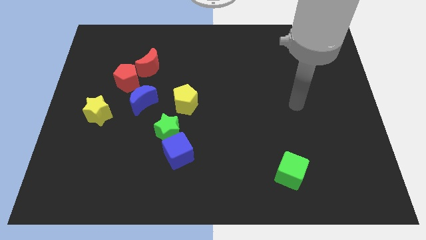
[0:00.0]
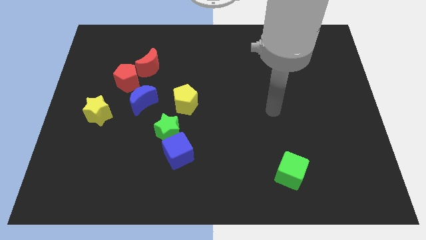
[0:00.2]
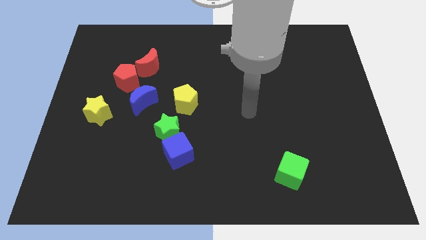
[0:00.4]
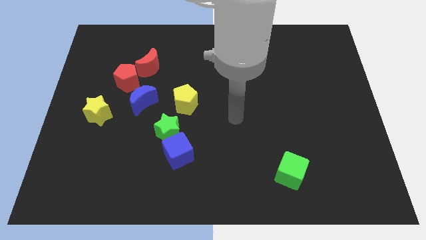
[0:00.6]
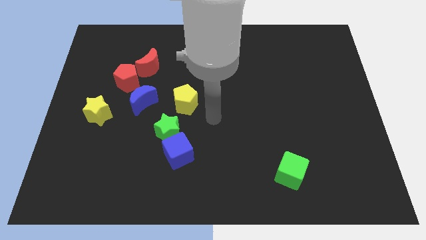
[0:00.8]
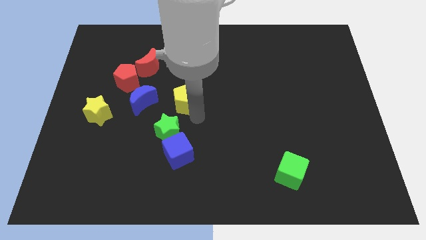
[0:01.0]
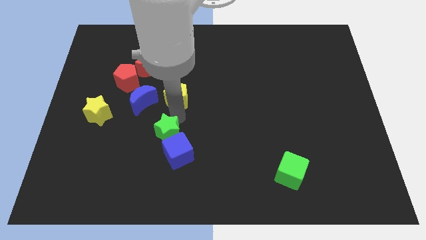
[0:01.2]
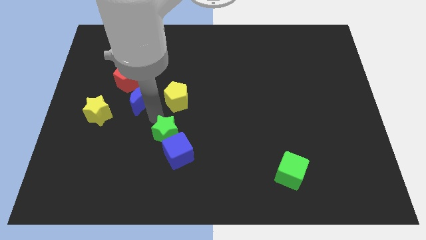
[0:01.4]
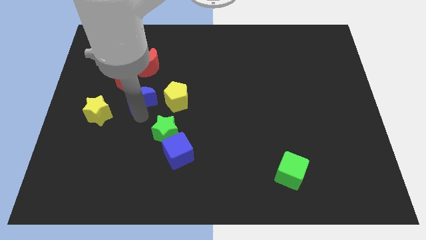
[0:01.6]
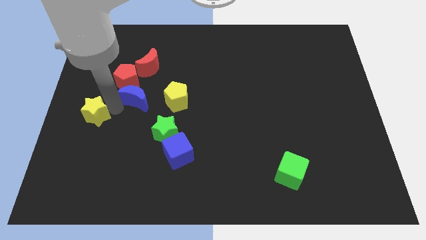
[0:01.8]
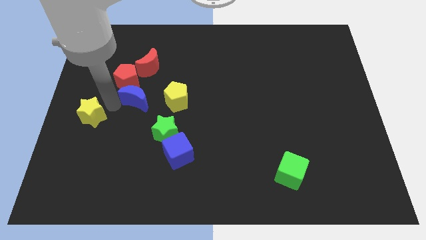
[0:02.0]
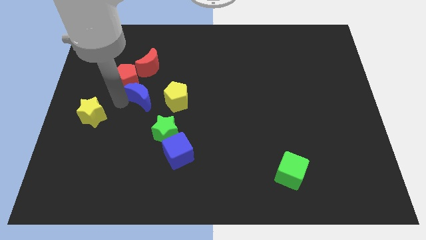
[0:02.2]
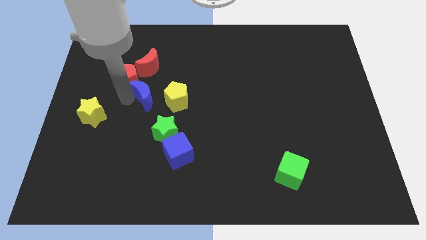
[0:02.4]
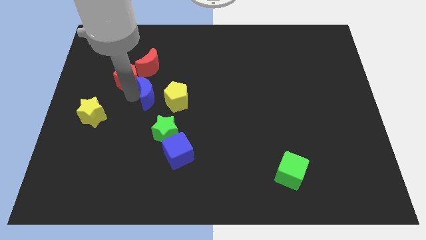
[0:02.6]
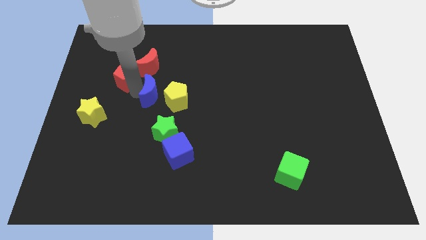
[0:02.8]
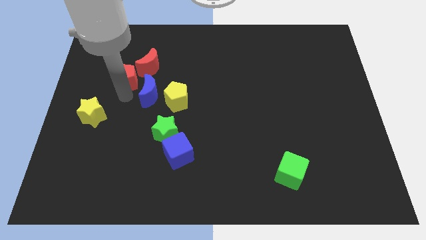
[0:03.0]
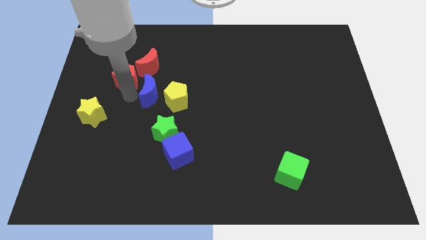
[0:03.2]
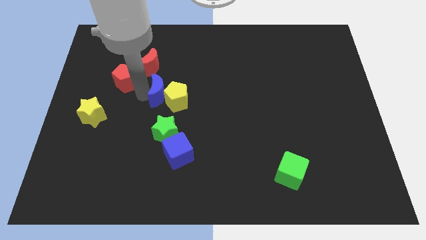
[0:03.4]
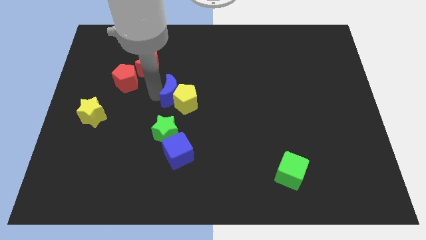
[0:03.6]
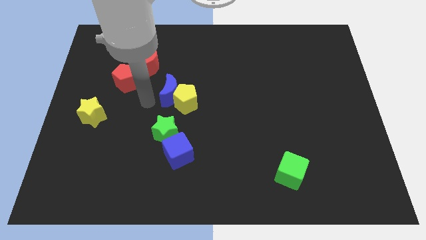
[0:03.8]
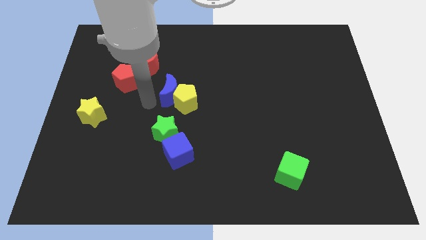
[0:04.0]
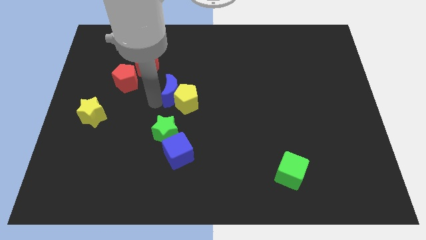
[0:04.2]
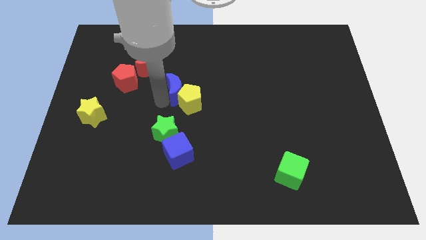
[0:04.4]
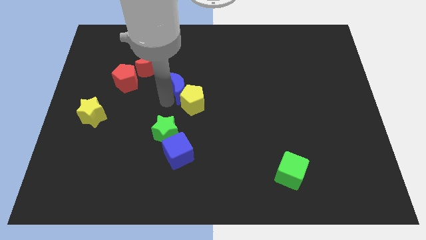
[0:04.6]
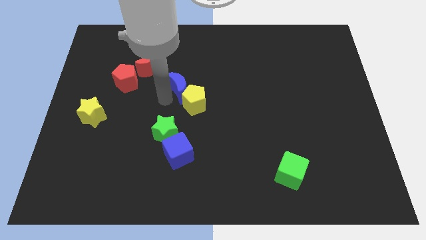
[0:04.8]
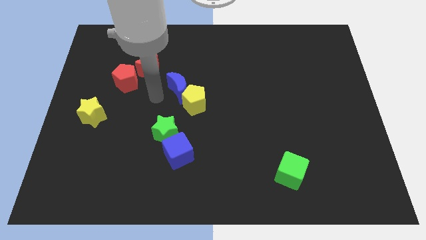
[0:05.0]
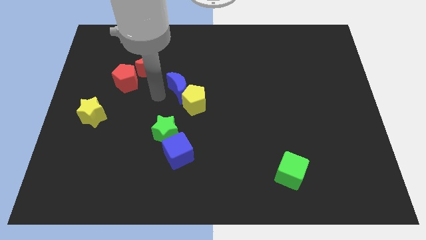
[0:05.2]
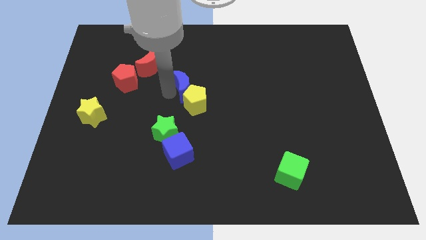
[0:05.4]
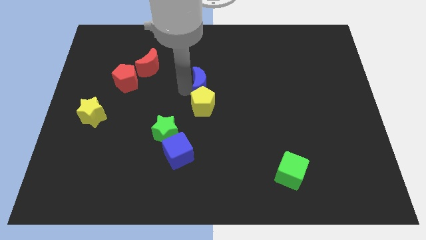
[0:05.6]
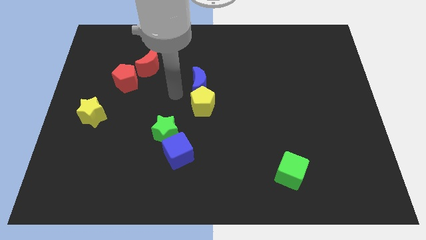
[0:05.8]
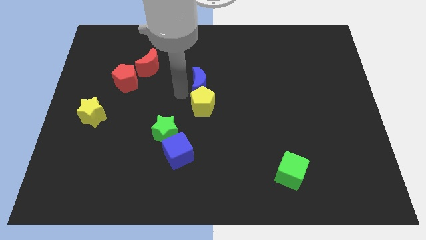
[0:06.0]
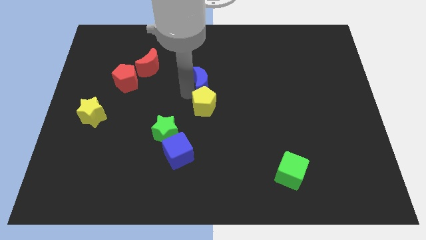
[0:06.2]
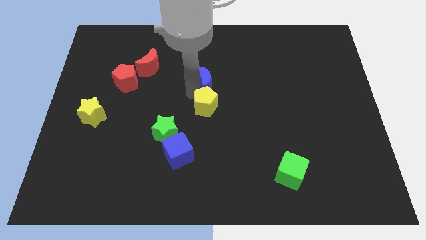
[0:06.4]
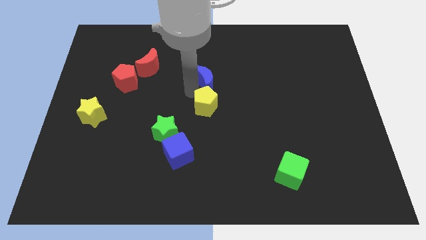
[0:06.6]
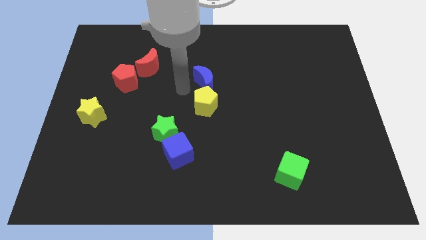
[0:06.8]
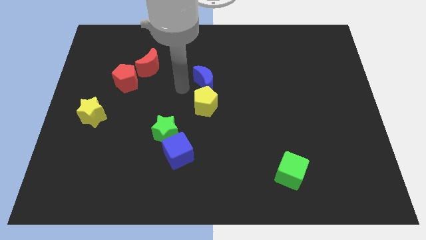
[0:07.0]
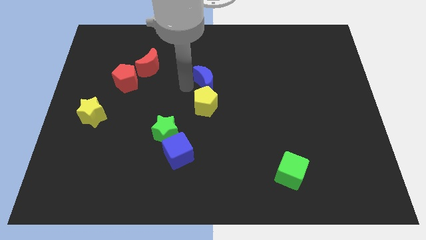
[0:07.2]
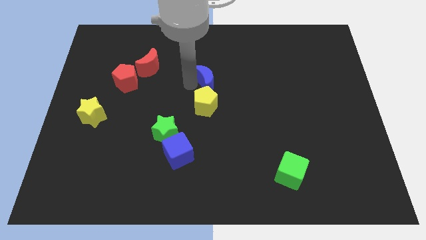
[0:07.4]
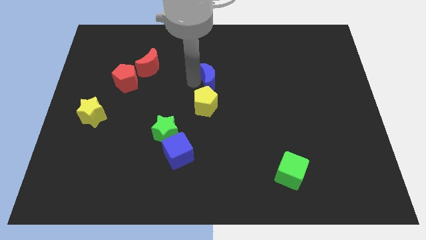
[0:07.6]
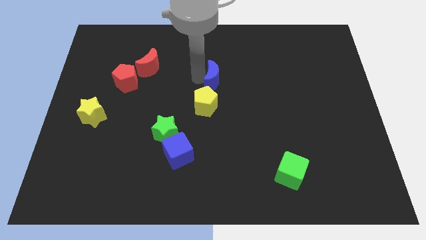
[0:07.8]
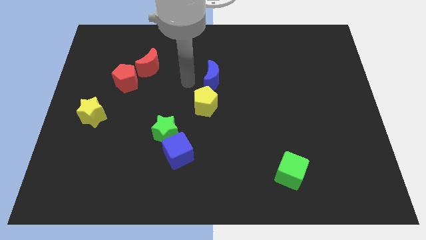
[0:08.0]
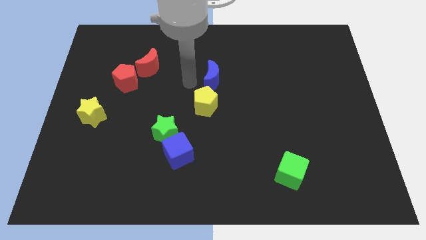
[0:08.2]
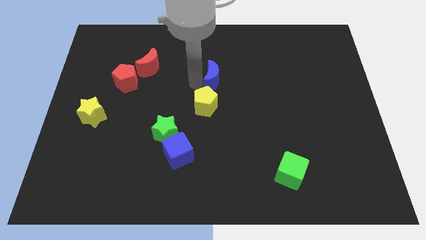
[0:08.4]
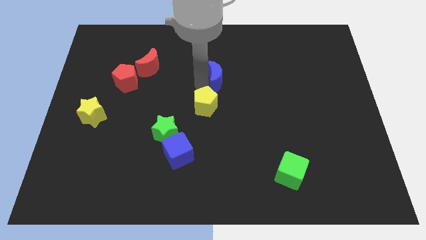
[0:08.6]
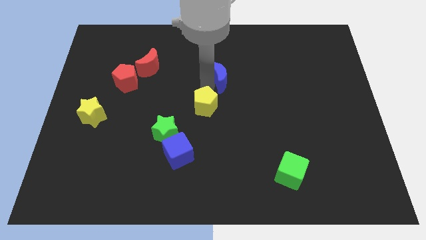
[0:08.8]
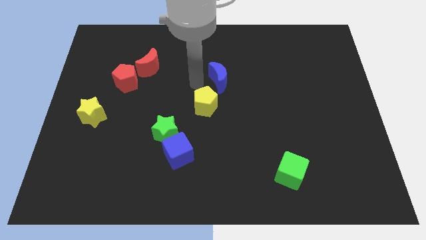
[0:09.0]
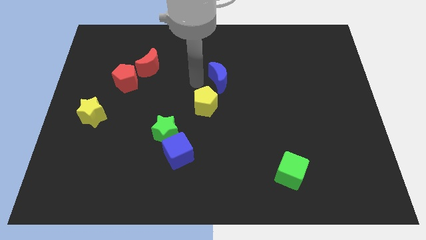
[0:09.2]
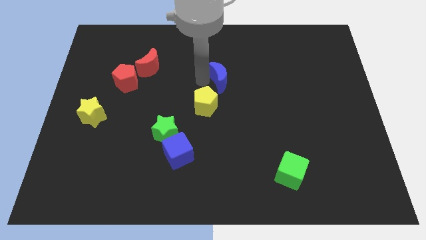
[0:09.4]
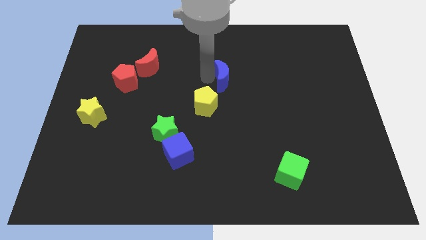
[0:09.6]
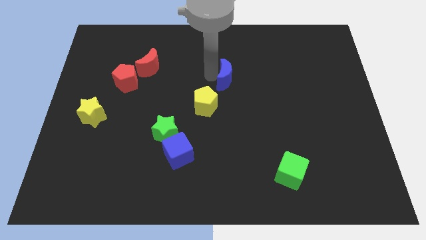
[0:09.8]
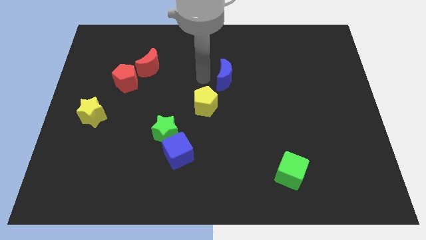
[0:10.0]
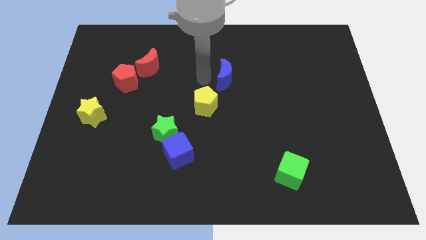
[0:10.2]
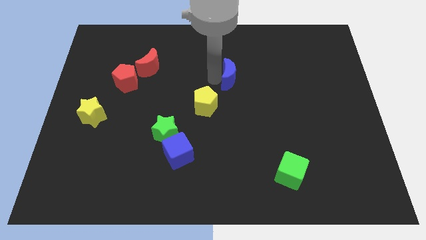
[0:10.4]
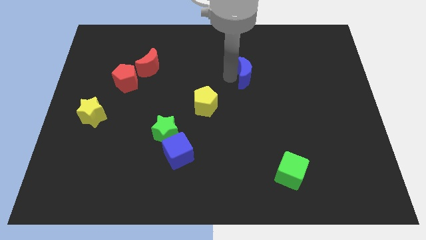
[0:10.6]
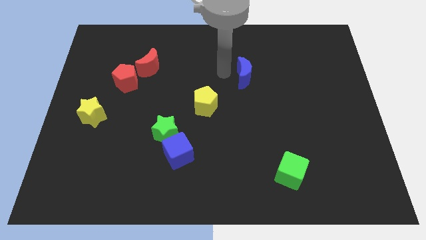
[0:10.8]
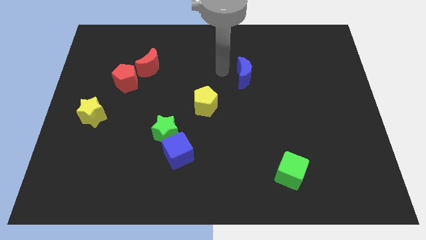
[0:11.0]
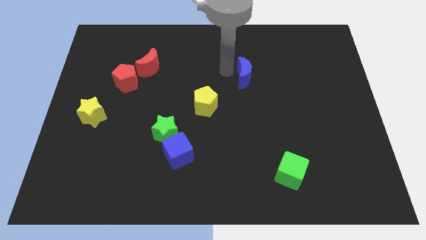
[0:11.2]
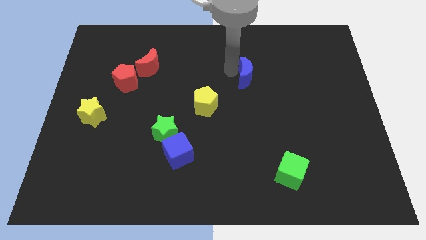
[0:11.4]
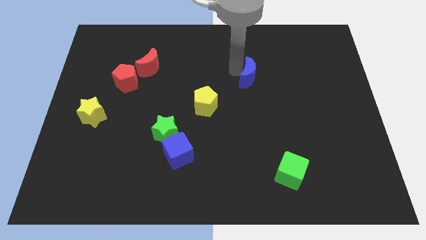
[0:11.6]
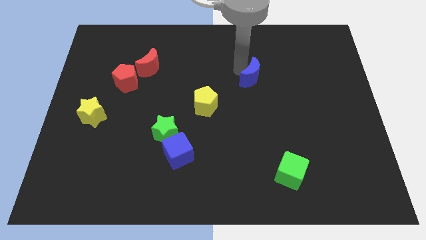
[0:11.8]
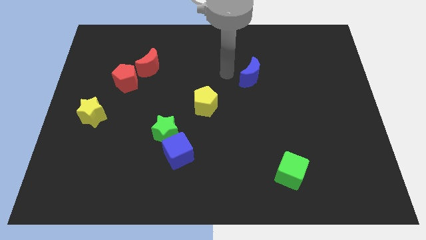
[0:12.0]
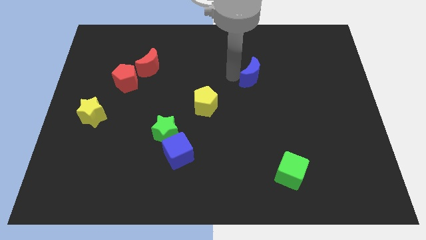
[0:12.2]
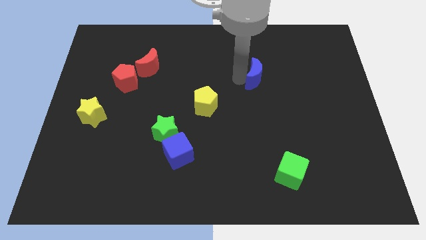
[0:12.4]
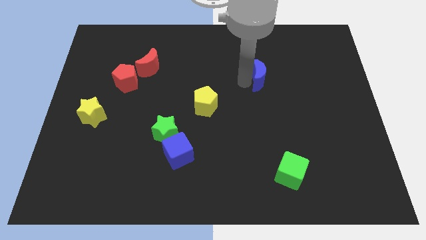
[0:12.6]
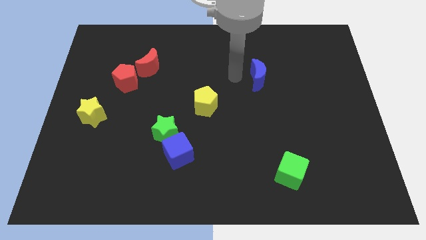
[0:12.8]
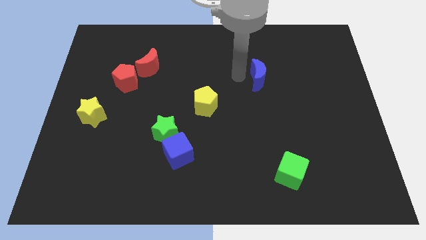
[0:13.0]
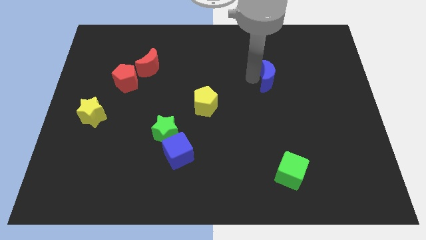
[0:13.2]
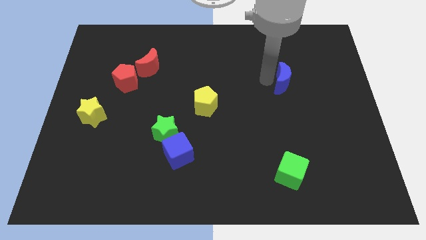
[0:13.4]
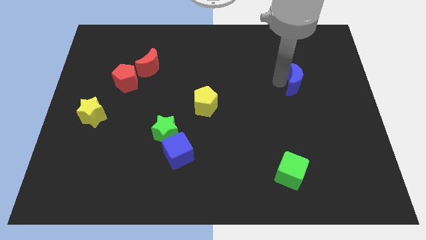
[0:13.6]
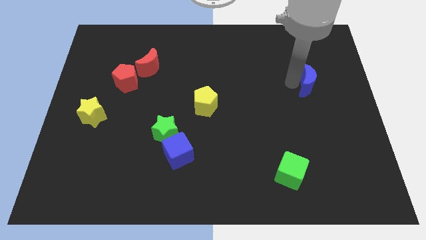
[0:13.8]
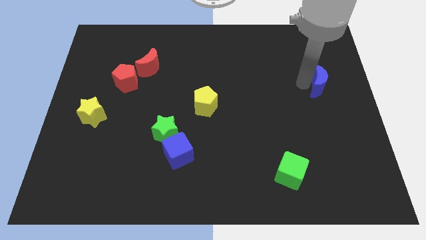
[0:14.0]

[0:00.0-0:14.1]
push the blue moon to the right side of the board

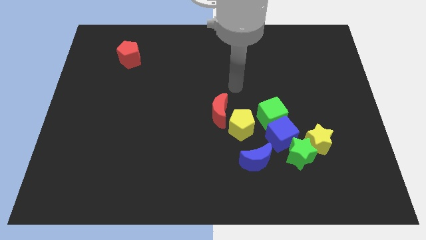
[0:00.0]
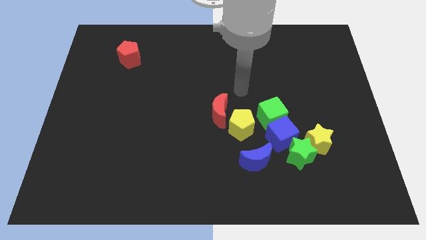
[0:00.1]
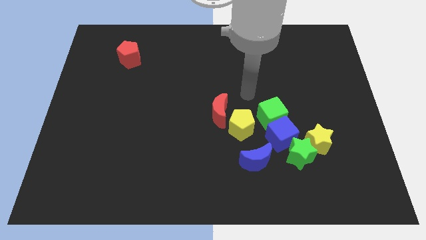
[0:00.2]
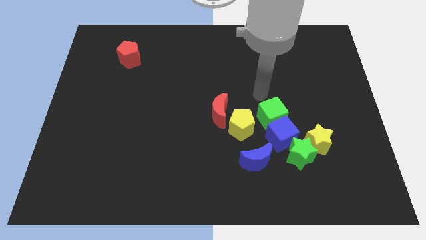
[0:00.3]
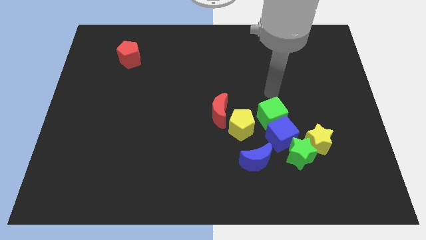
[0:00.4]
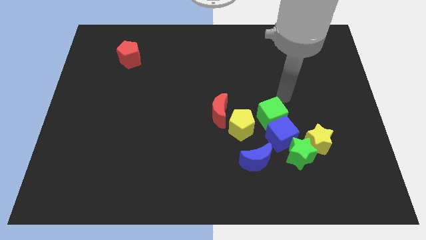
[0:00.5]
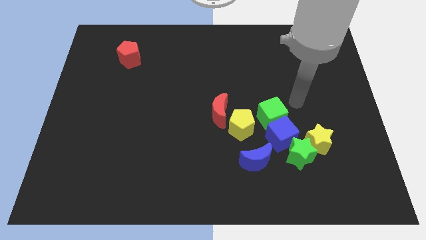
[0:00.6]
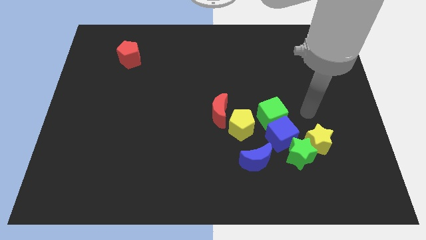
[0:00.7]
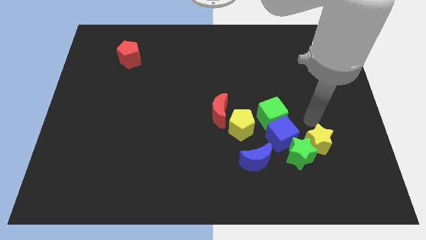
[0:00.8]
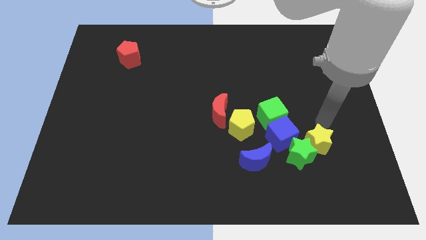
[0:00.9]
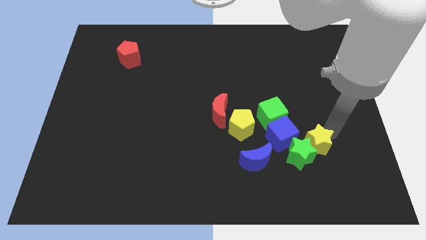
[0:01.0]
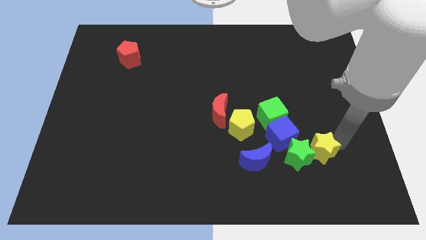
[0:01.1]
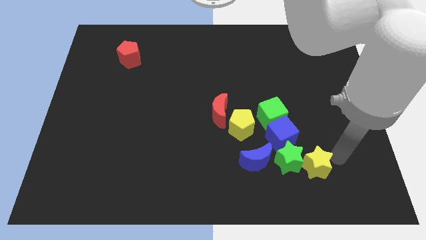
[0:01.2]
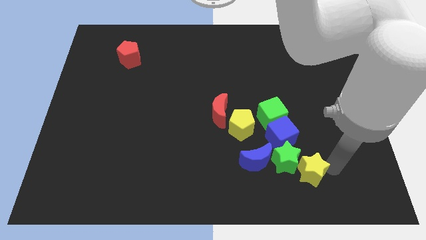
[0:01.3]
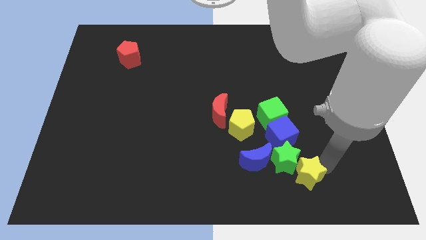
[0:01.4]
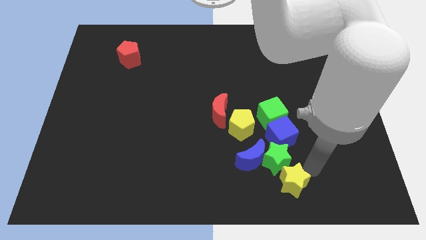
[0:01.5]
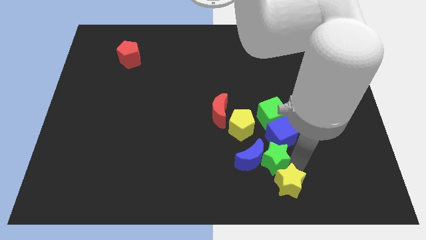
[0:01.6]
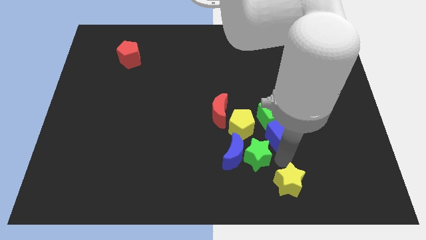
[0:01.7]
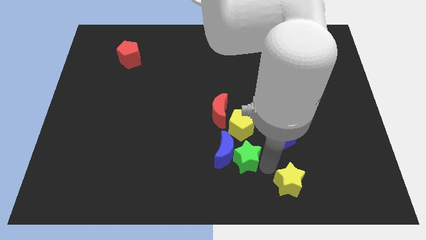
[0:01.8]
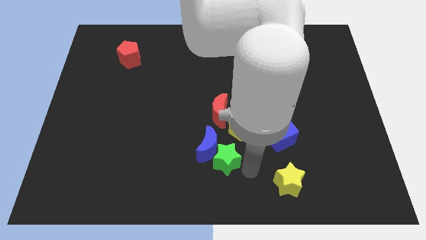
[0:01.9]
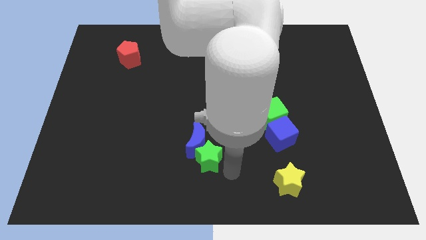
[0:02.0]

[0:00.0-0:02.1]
put the blue moon to the center of the board
